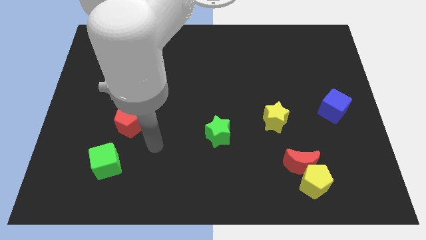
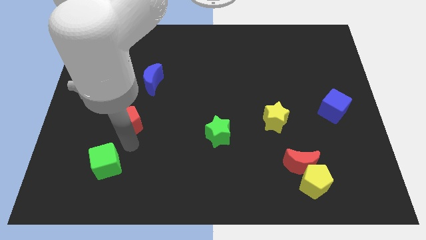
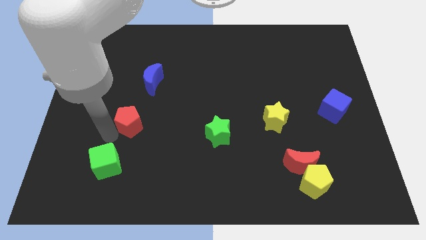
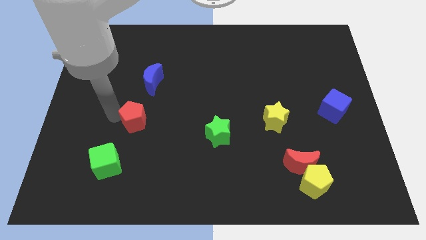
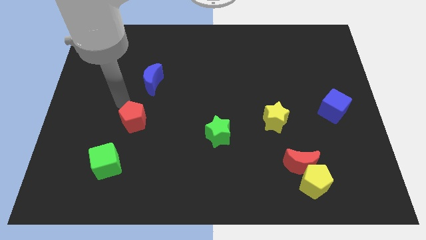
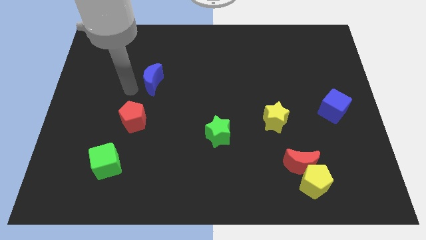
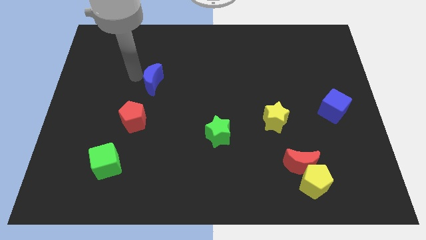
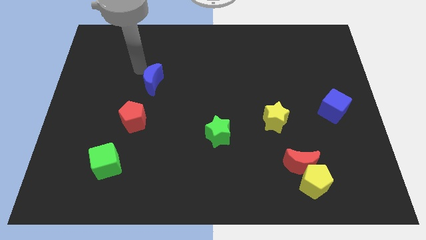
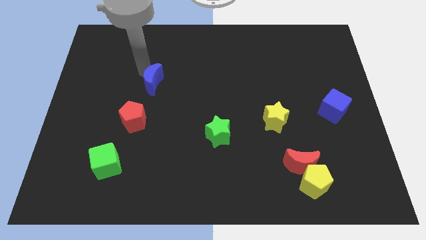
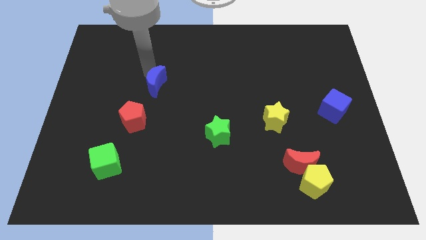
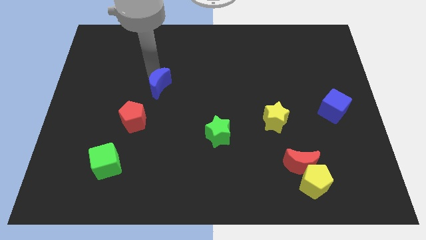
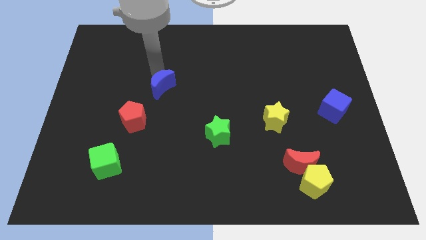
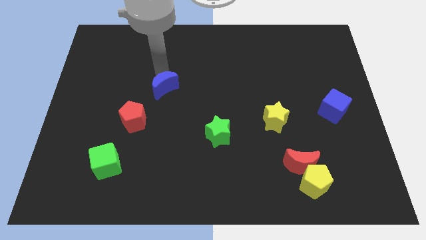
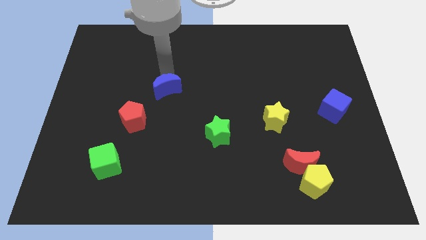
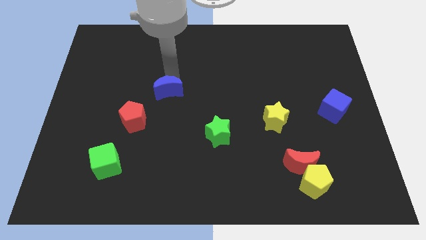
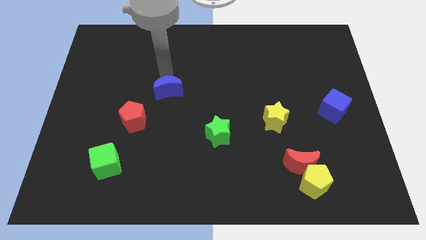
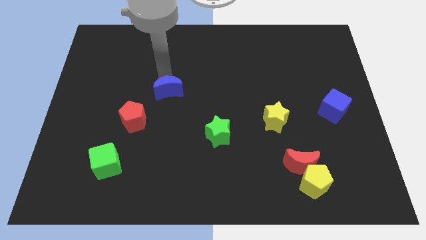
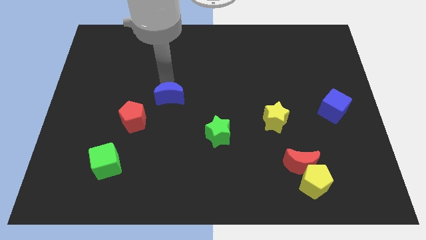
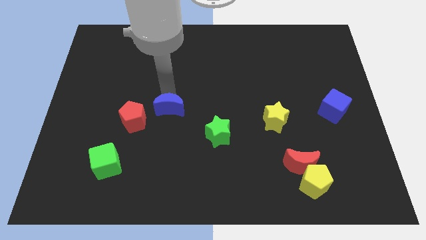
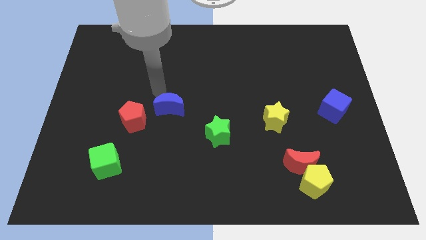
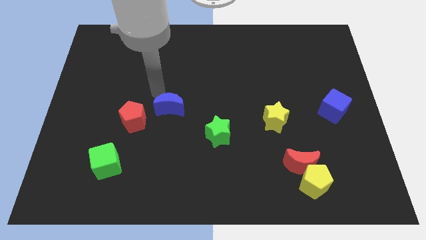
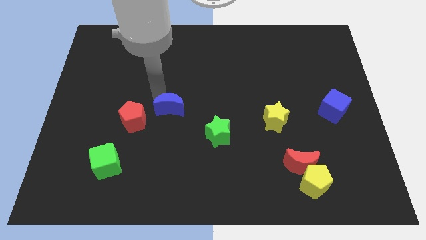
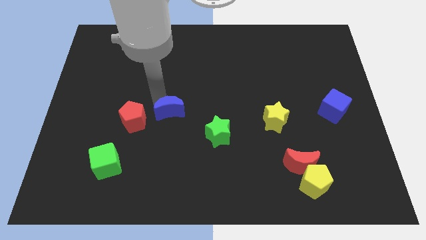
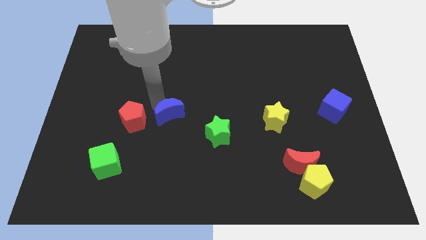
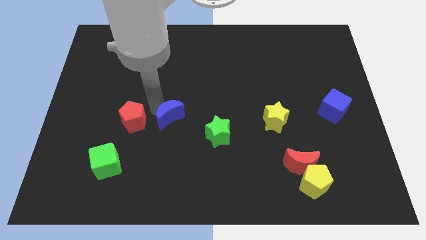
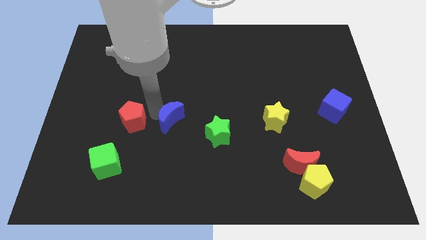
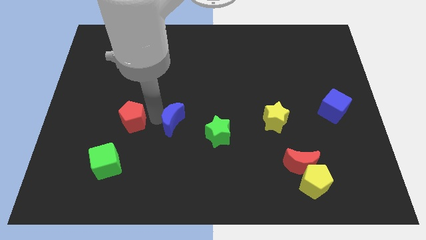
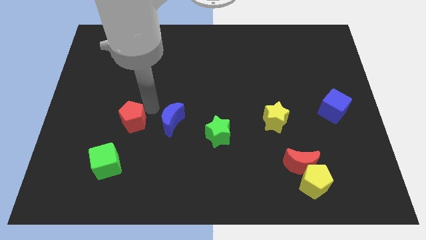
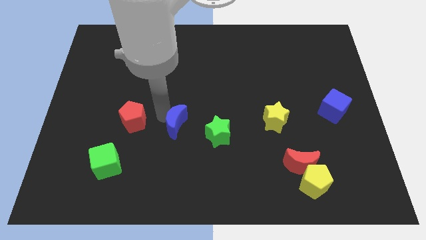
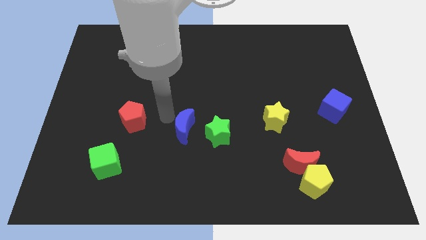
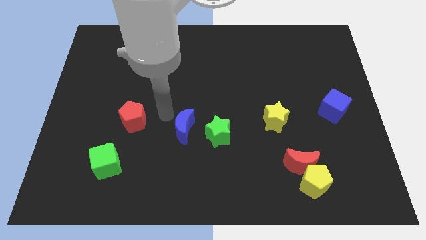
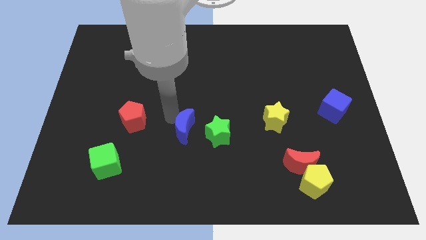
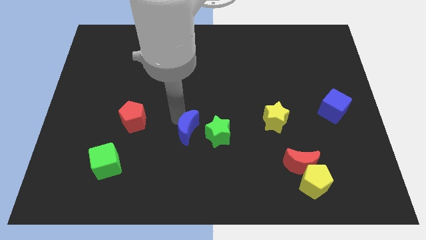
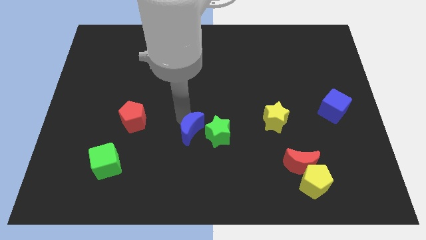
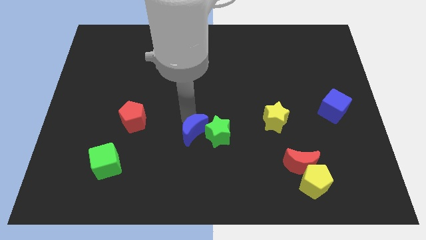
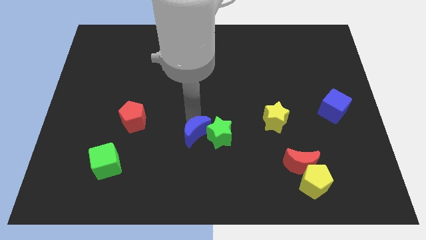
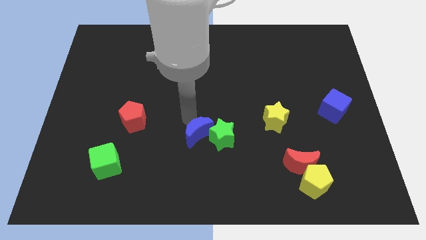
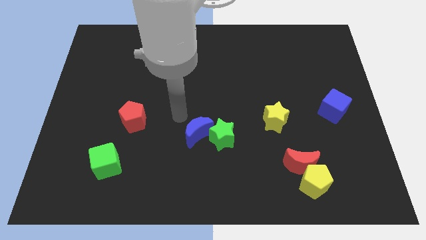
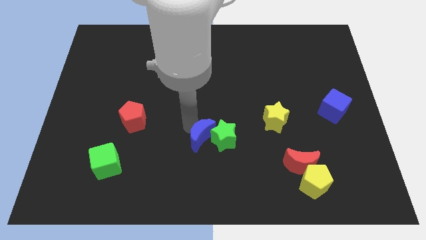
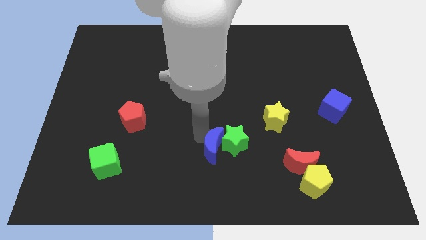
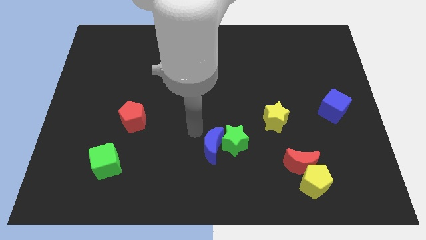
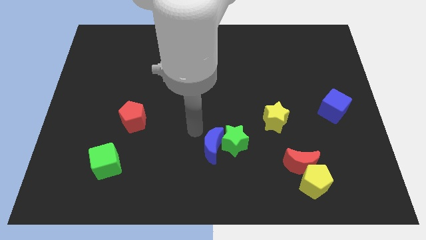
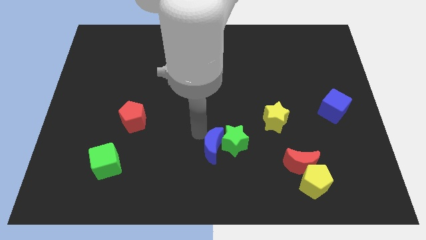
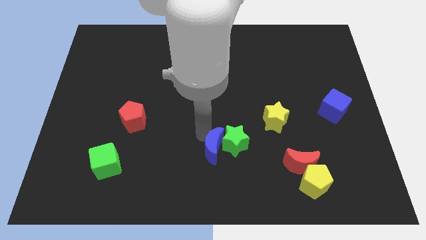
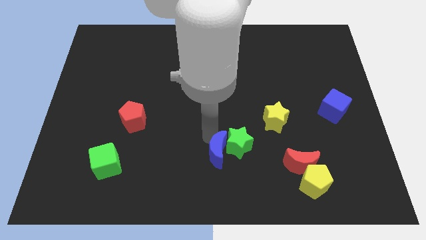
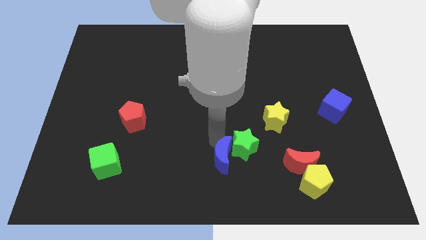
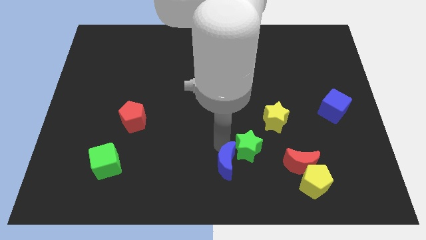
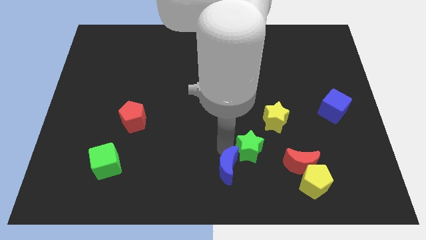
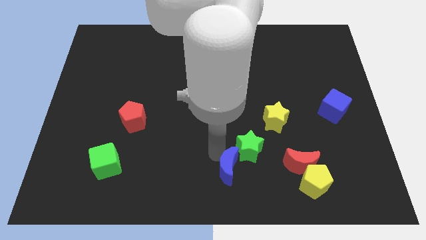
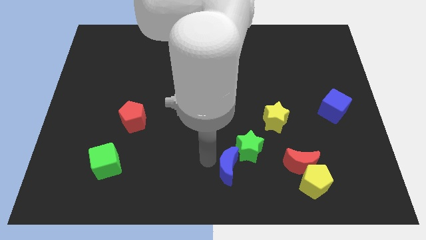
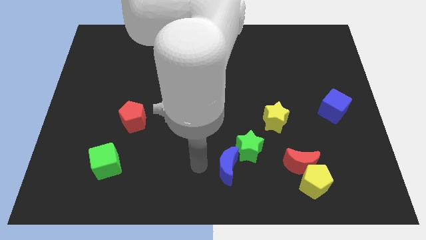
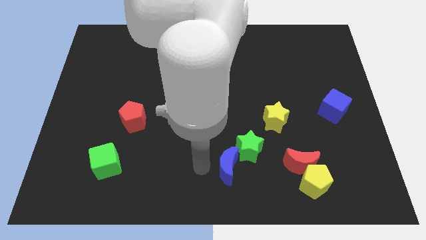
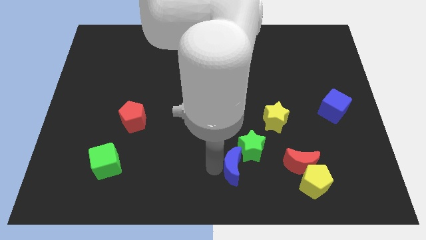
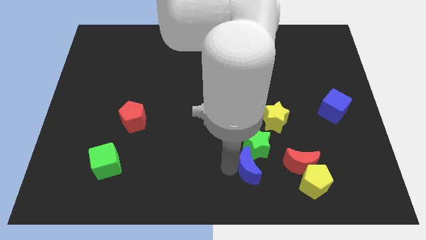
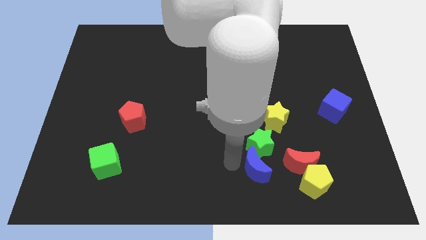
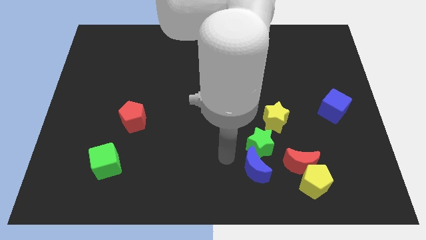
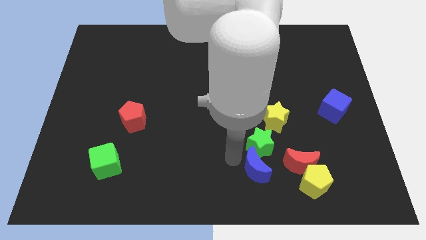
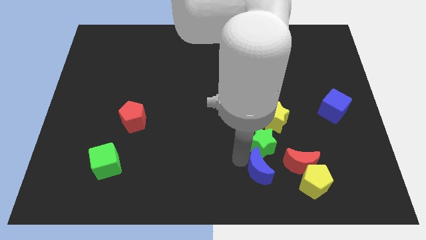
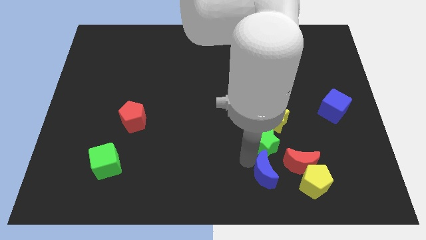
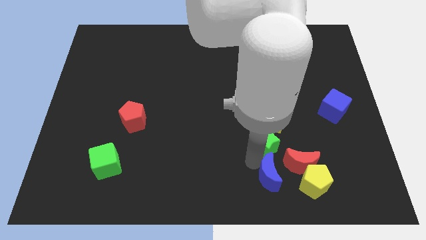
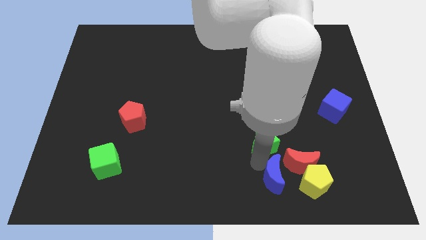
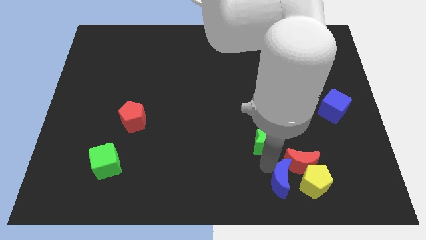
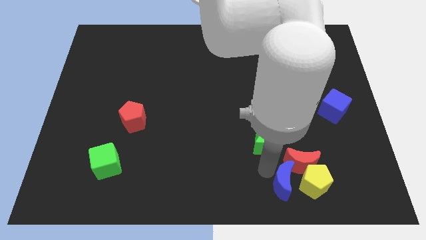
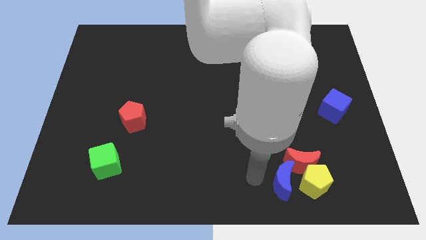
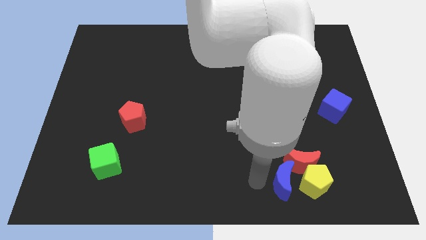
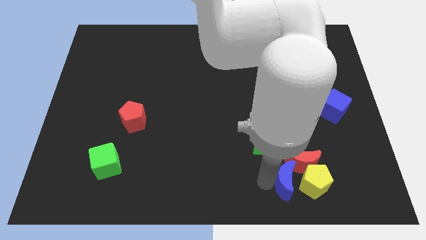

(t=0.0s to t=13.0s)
push the blue moon next to the yellow pentagon

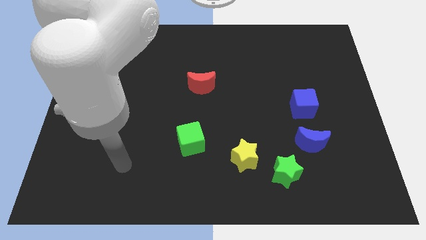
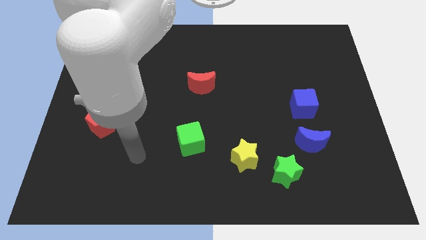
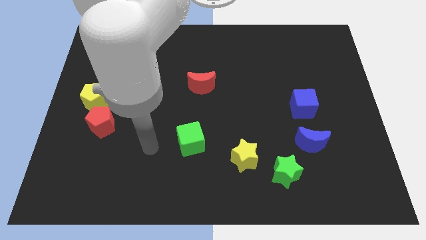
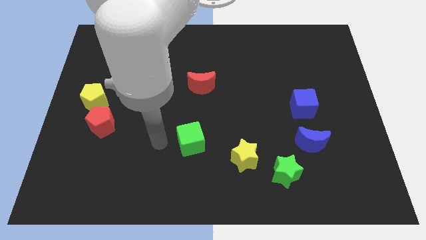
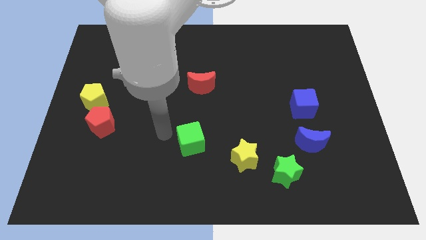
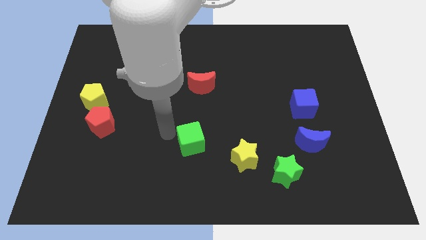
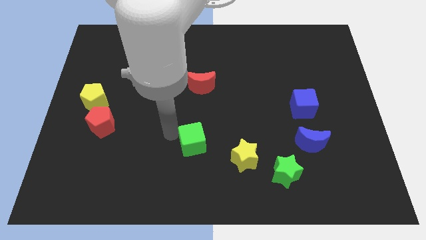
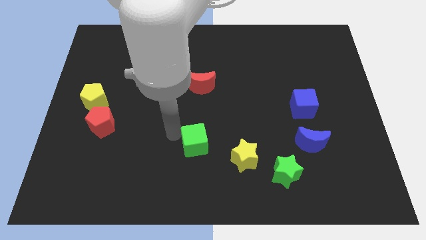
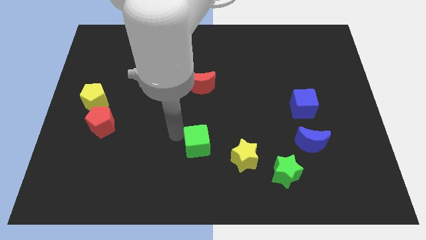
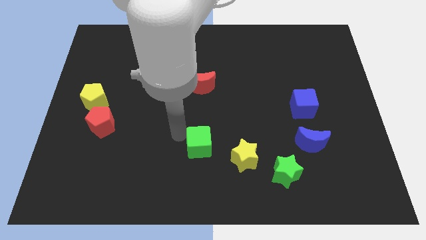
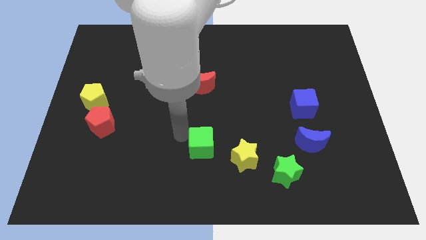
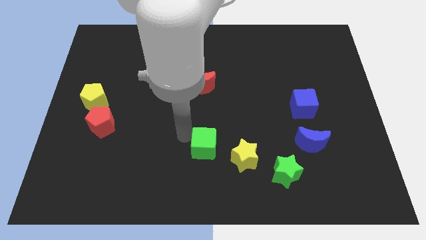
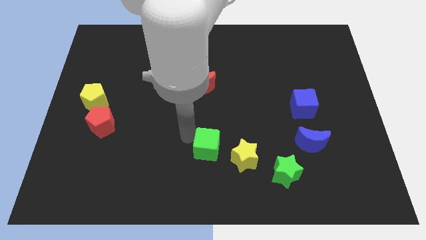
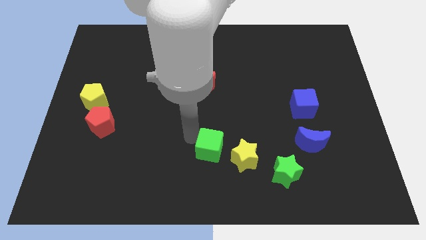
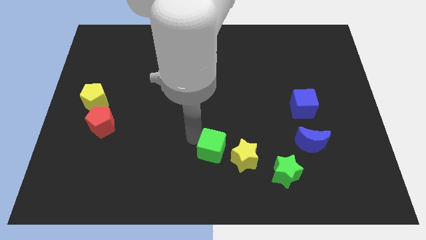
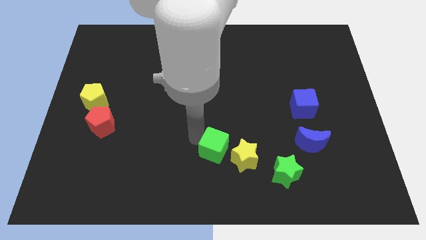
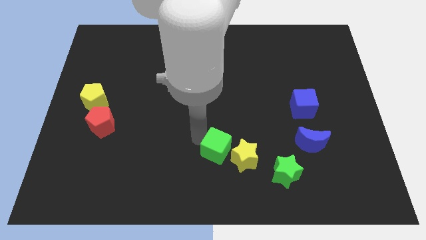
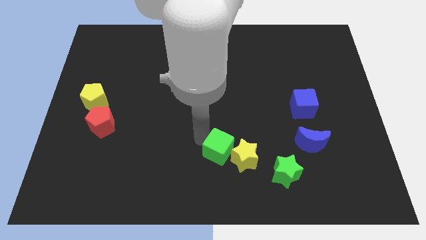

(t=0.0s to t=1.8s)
put the green cube next to the yellow star
